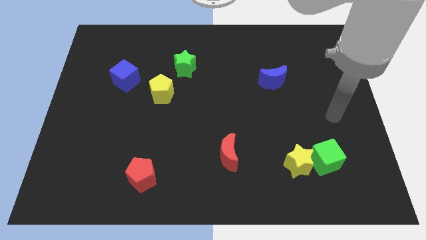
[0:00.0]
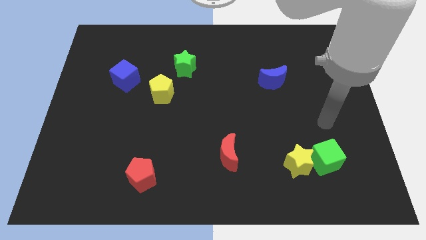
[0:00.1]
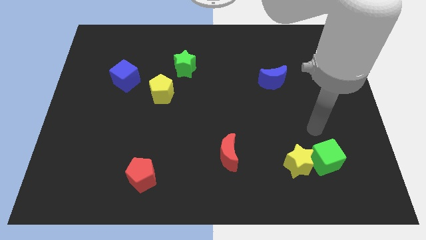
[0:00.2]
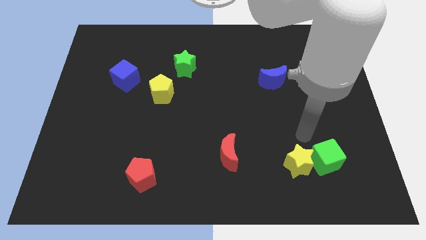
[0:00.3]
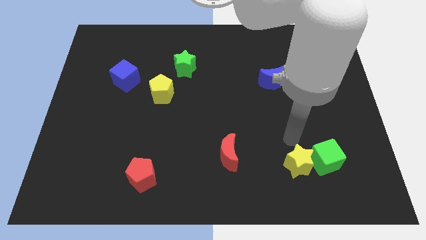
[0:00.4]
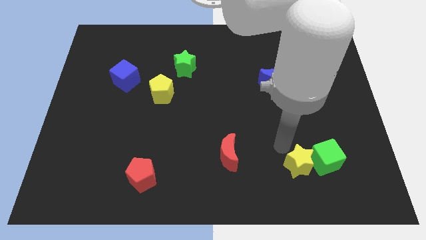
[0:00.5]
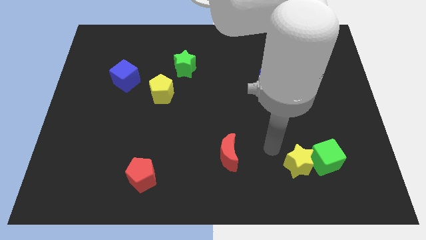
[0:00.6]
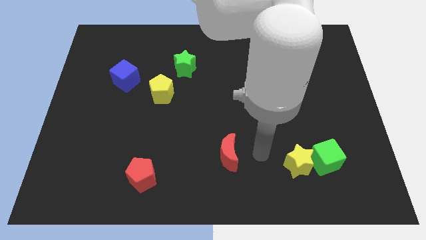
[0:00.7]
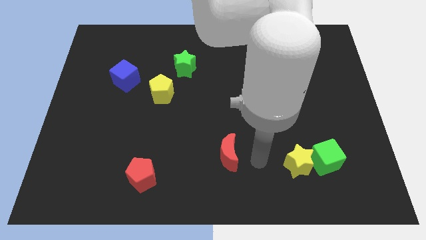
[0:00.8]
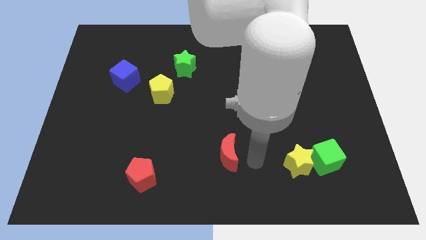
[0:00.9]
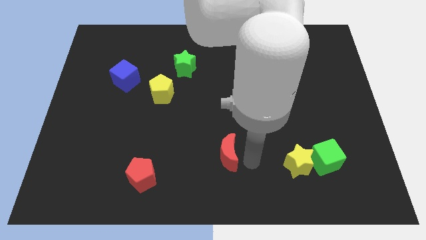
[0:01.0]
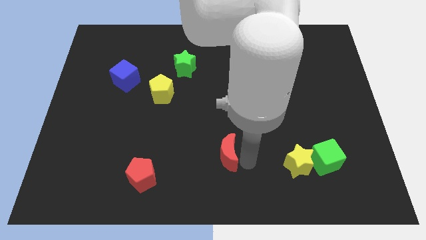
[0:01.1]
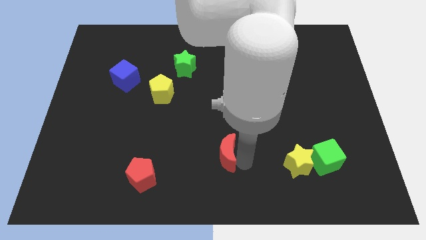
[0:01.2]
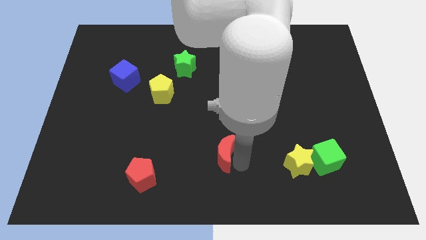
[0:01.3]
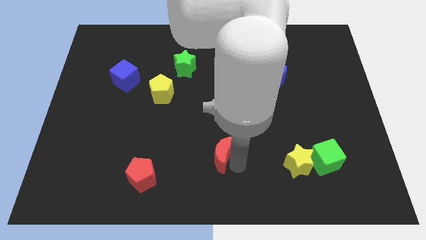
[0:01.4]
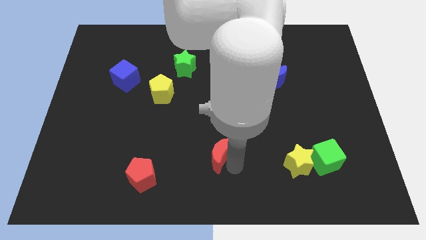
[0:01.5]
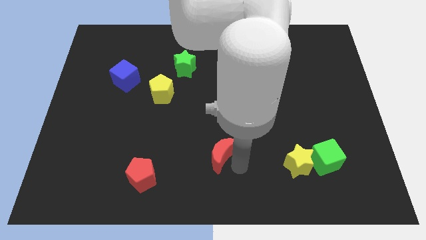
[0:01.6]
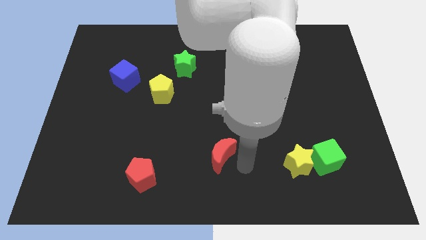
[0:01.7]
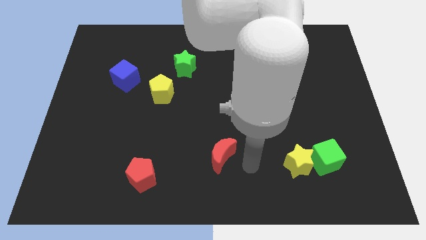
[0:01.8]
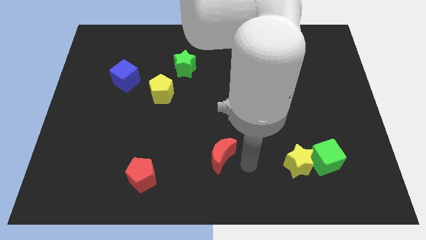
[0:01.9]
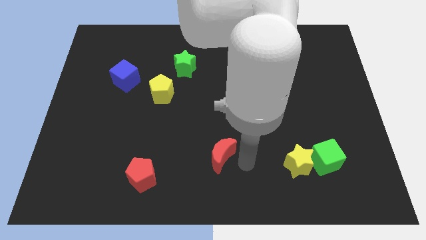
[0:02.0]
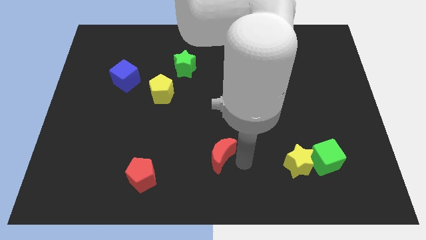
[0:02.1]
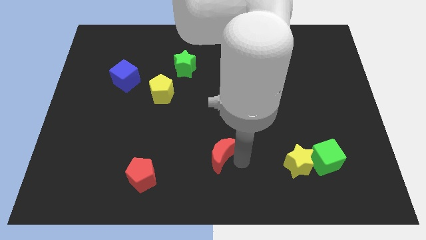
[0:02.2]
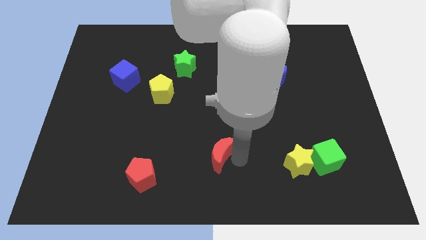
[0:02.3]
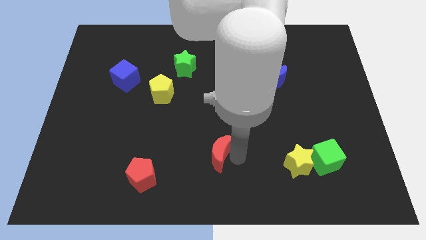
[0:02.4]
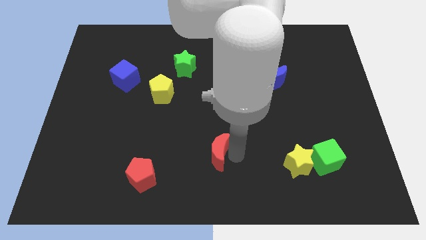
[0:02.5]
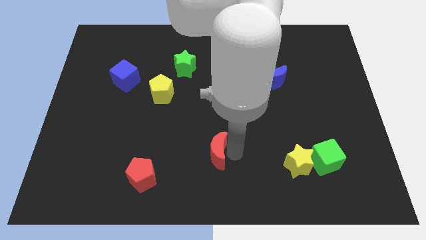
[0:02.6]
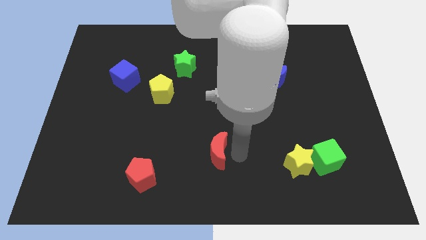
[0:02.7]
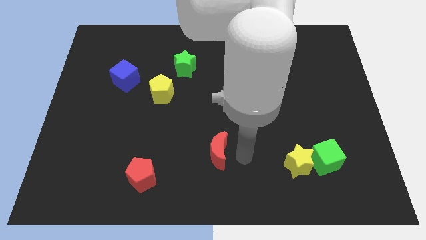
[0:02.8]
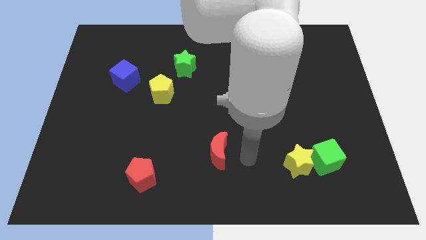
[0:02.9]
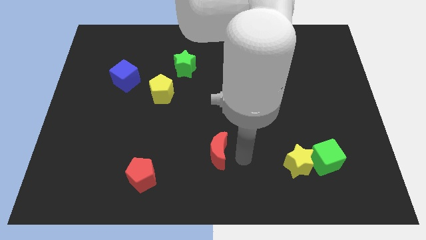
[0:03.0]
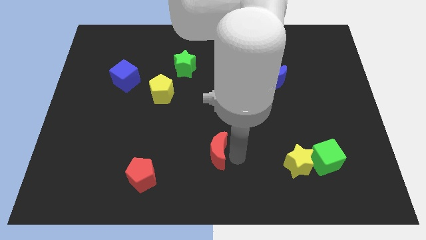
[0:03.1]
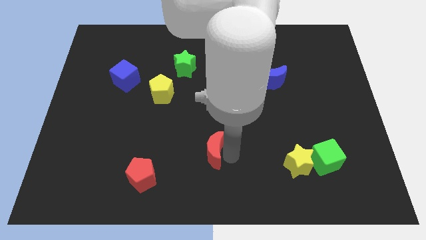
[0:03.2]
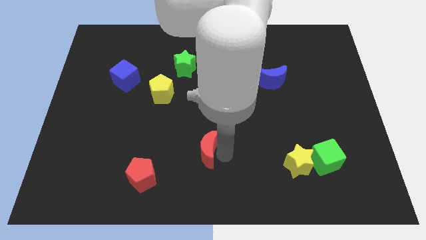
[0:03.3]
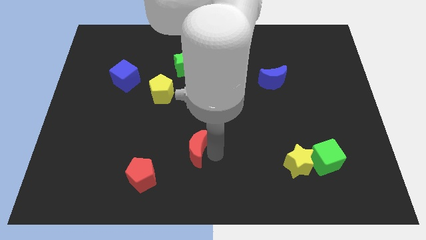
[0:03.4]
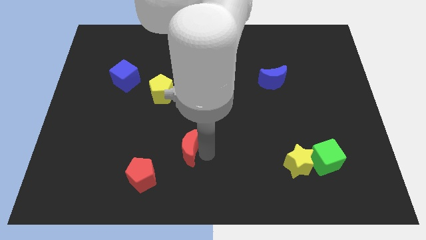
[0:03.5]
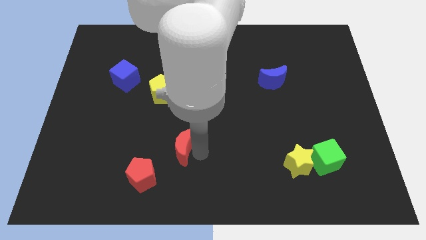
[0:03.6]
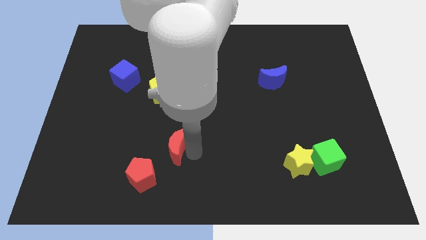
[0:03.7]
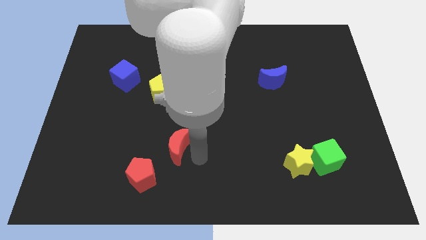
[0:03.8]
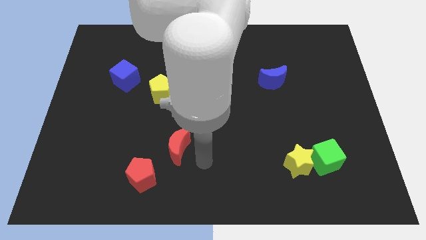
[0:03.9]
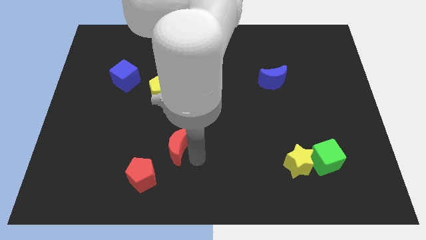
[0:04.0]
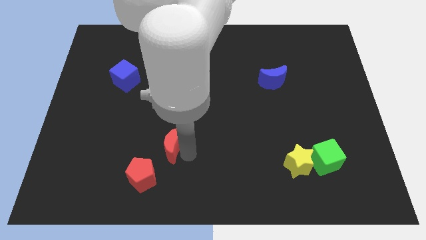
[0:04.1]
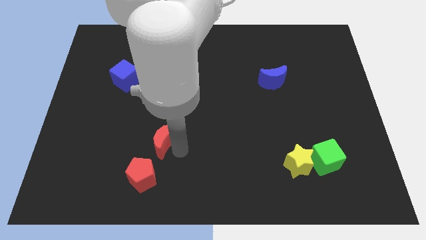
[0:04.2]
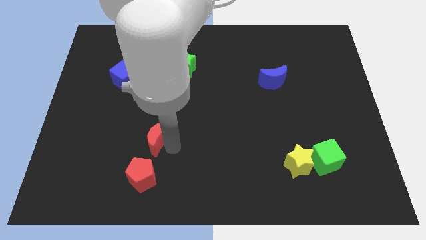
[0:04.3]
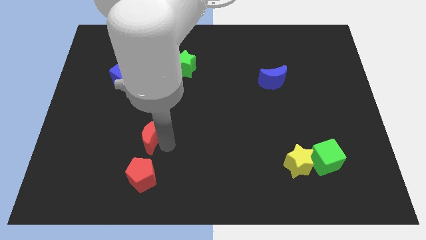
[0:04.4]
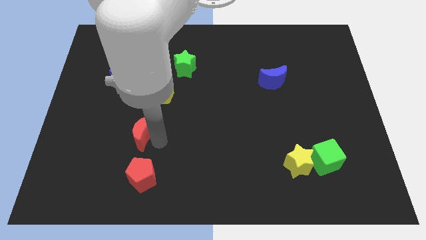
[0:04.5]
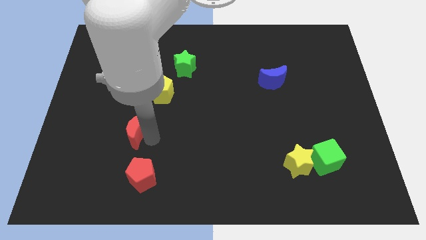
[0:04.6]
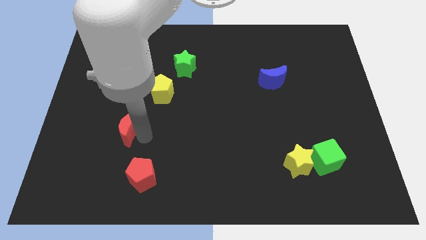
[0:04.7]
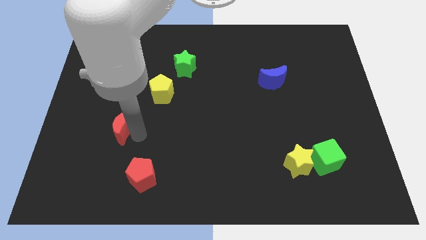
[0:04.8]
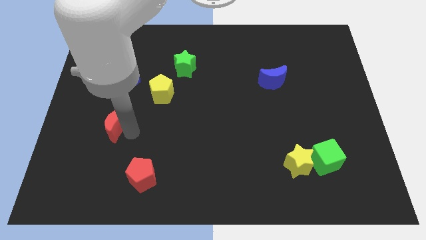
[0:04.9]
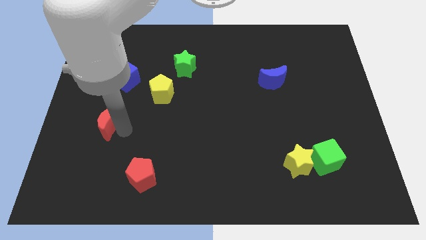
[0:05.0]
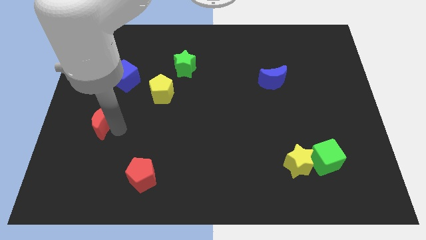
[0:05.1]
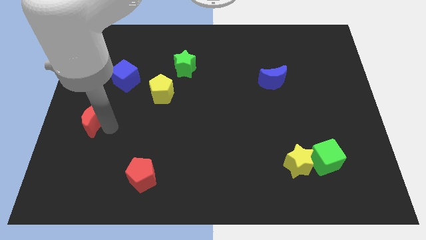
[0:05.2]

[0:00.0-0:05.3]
move the red moon to the left side

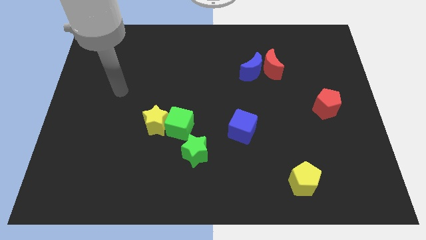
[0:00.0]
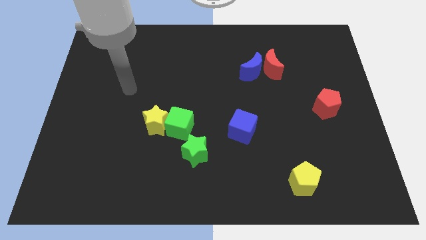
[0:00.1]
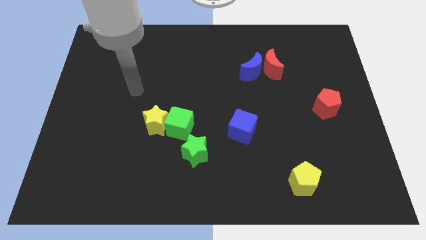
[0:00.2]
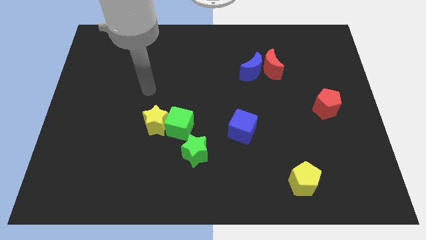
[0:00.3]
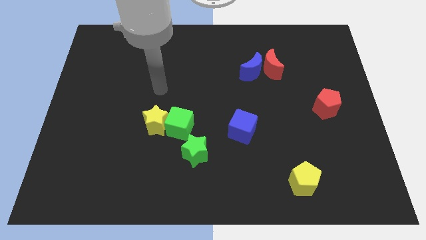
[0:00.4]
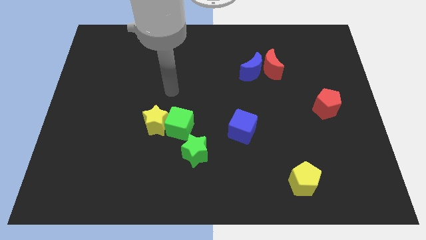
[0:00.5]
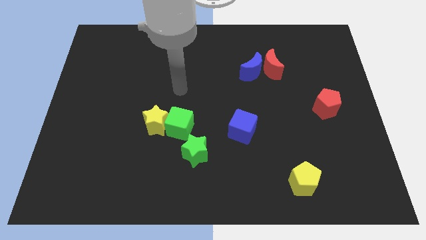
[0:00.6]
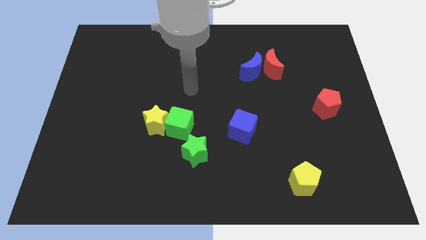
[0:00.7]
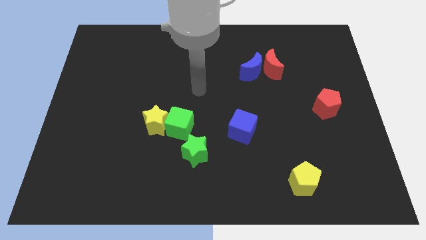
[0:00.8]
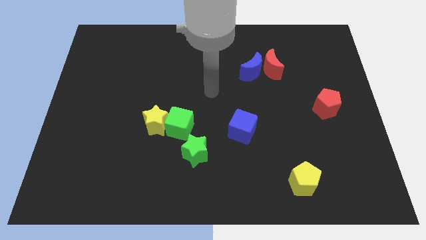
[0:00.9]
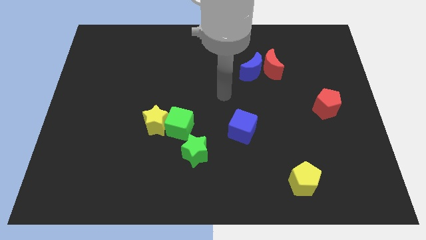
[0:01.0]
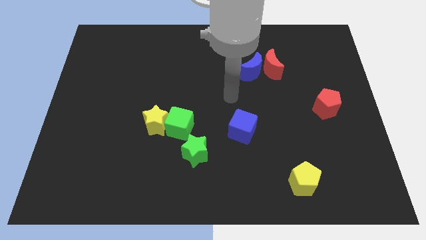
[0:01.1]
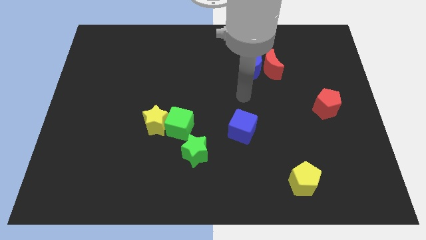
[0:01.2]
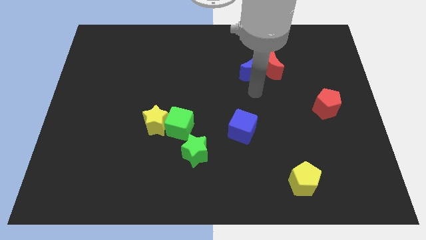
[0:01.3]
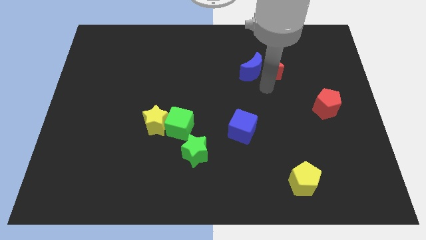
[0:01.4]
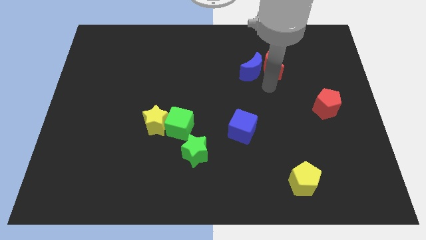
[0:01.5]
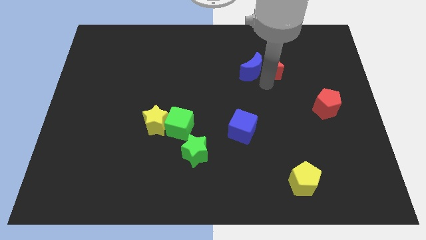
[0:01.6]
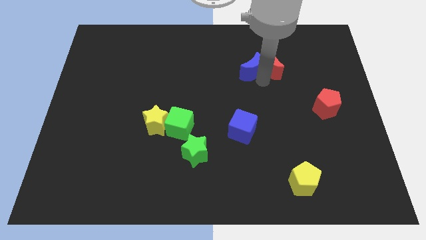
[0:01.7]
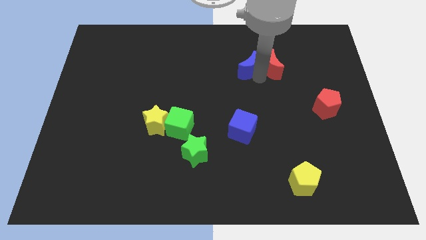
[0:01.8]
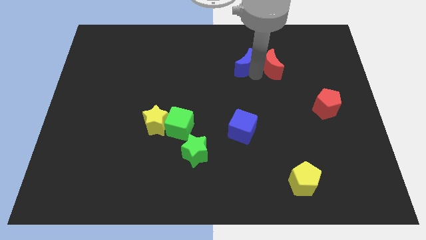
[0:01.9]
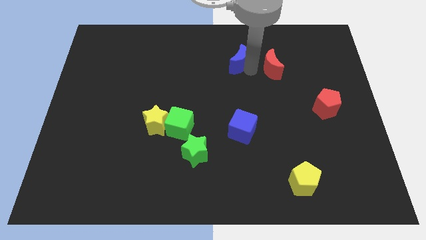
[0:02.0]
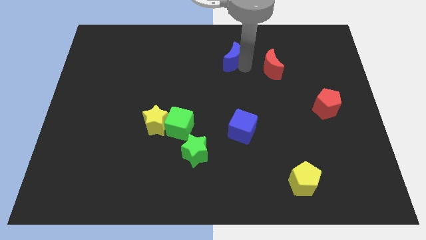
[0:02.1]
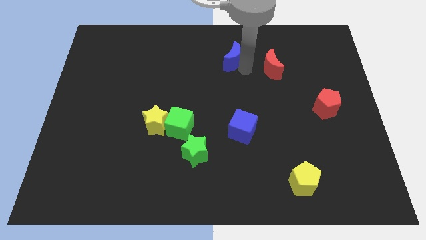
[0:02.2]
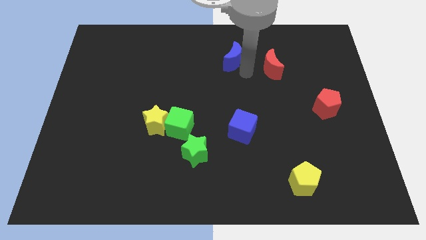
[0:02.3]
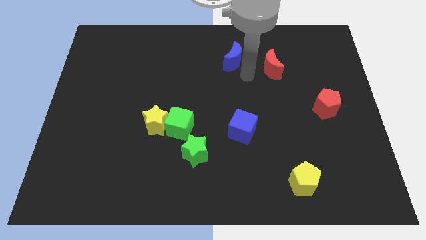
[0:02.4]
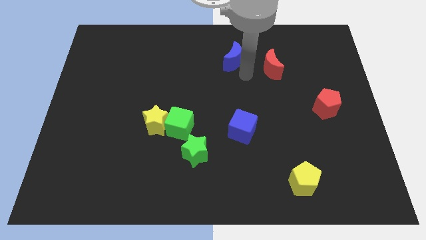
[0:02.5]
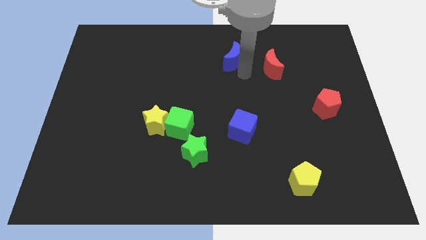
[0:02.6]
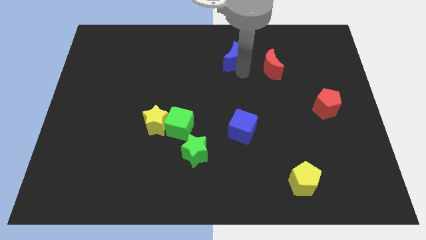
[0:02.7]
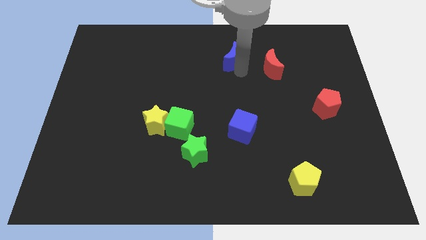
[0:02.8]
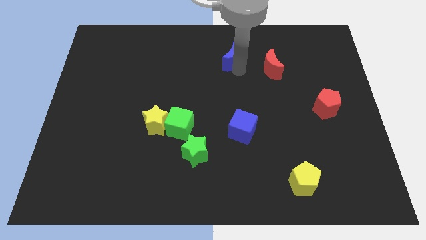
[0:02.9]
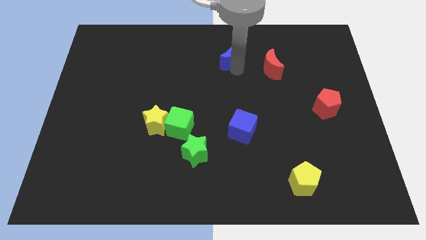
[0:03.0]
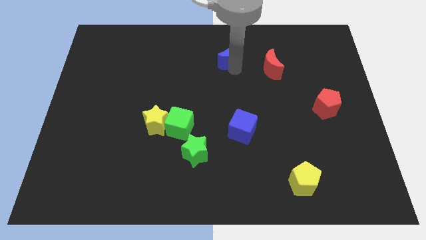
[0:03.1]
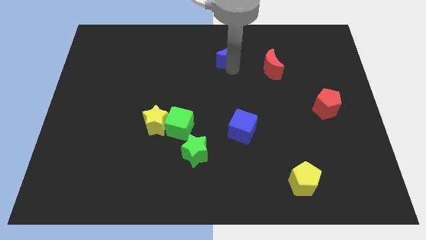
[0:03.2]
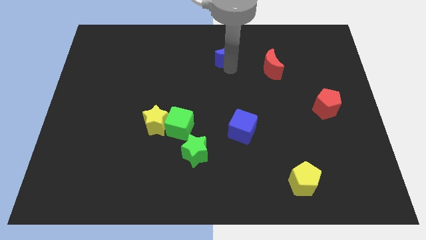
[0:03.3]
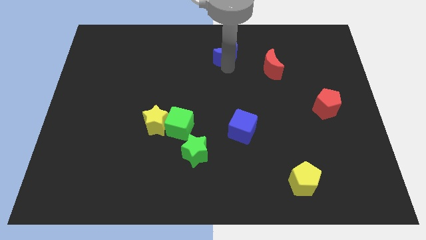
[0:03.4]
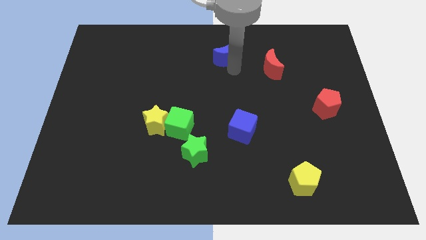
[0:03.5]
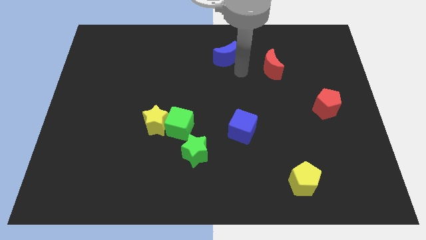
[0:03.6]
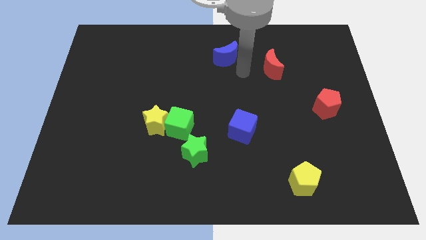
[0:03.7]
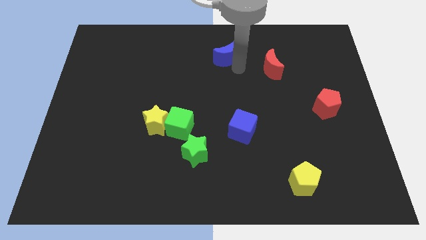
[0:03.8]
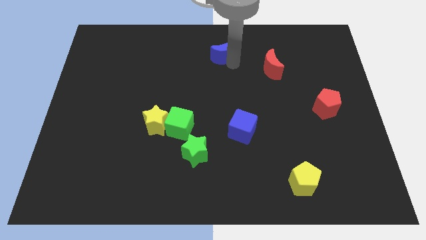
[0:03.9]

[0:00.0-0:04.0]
push the blue moon to the top side
